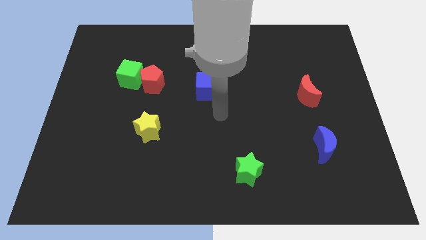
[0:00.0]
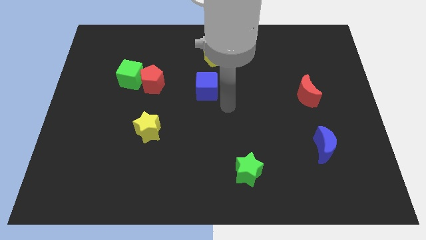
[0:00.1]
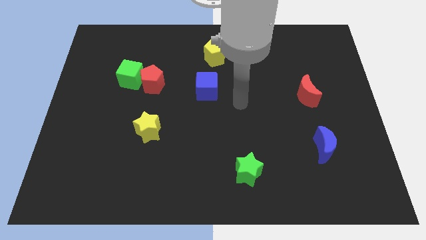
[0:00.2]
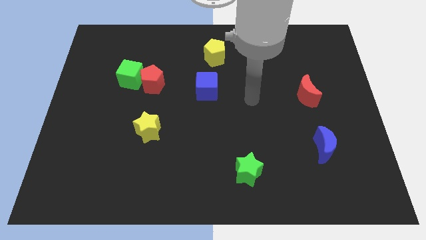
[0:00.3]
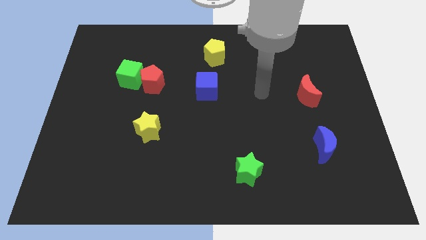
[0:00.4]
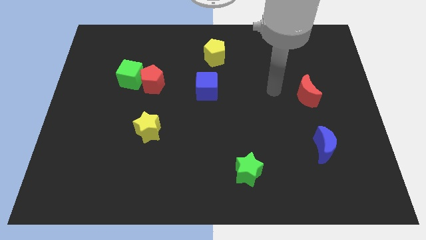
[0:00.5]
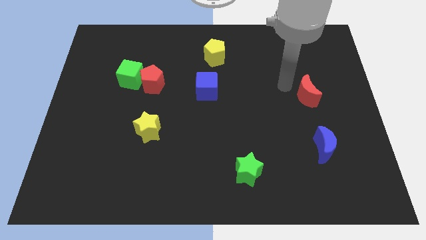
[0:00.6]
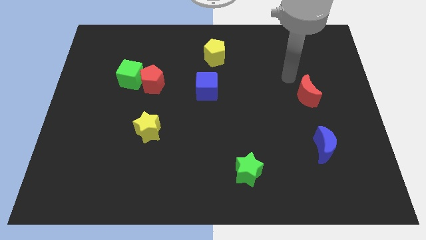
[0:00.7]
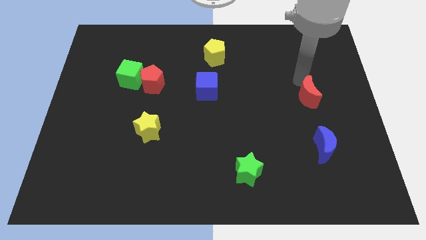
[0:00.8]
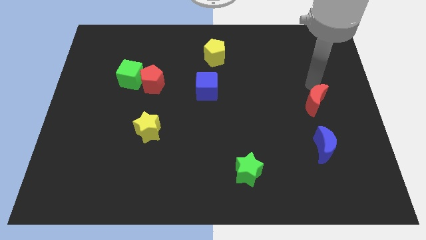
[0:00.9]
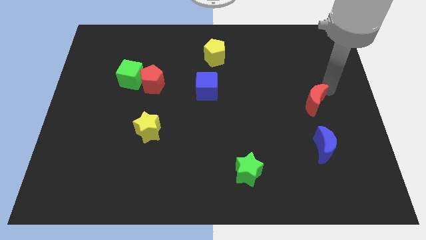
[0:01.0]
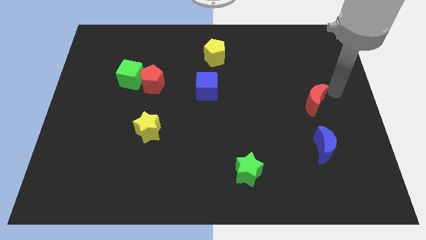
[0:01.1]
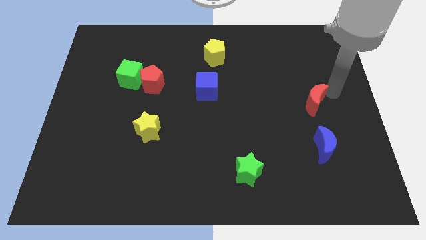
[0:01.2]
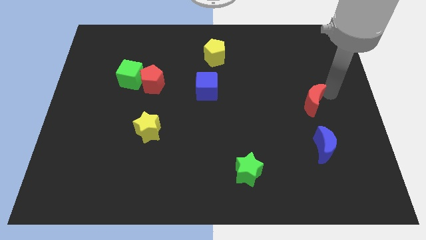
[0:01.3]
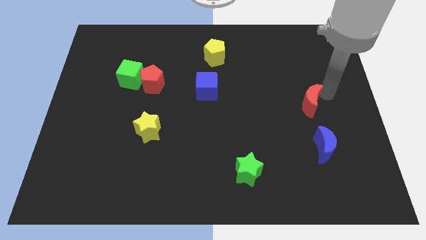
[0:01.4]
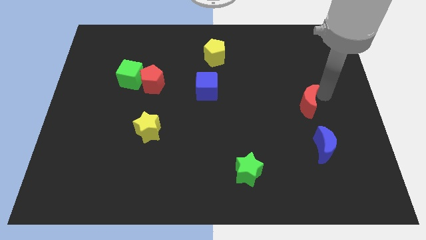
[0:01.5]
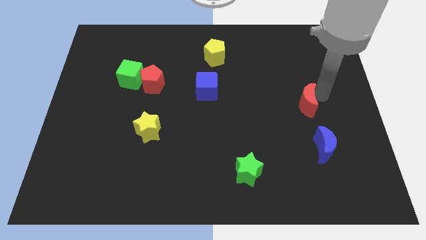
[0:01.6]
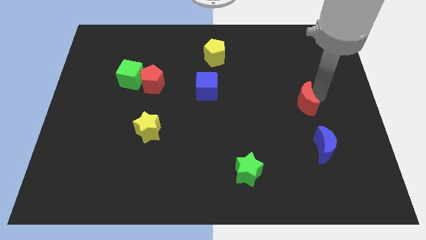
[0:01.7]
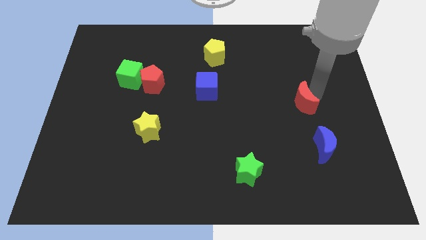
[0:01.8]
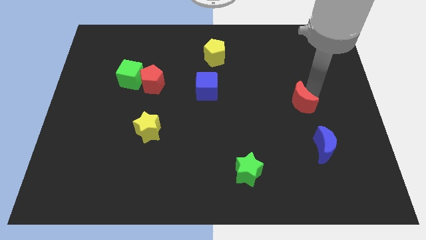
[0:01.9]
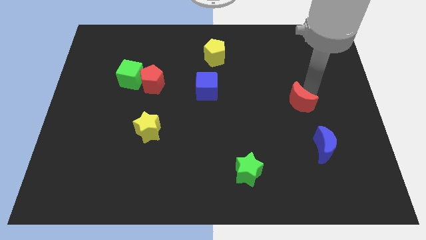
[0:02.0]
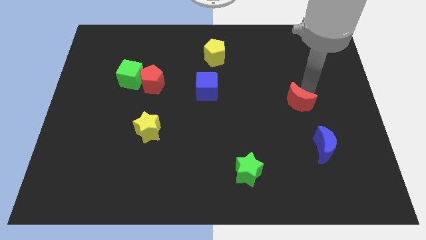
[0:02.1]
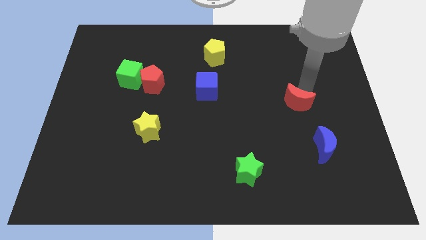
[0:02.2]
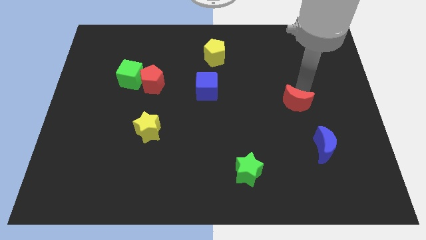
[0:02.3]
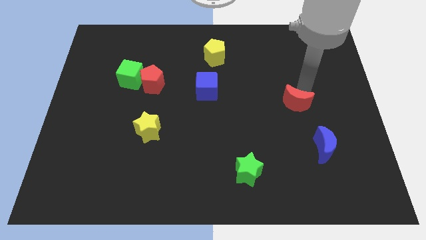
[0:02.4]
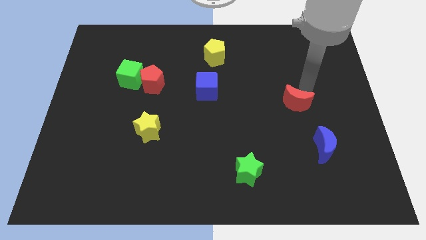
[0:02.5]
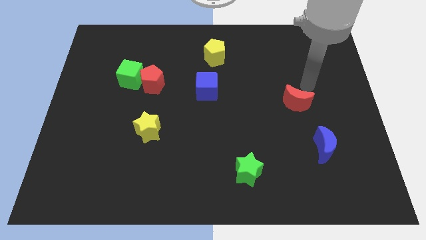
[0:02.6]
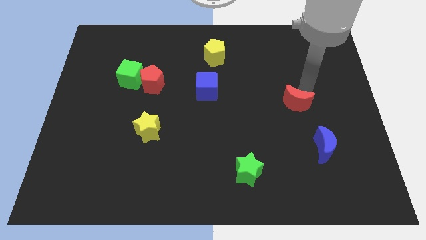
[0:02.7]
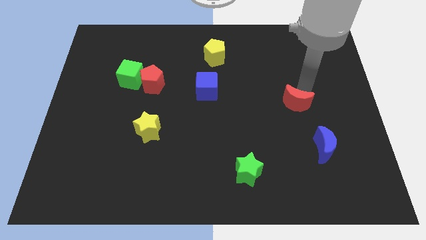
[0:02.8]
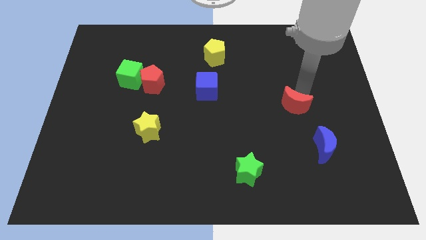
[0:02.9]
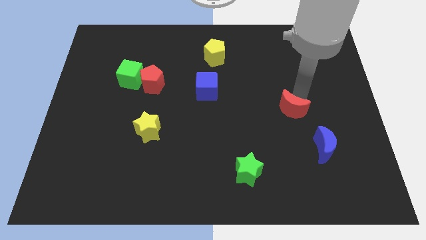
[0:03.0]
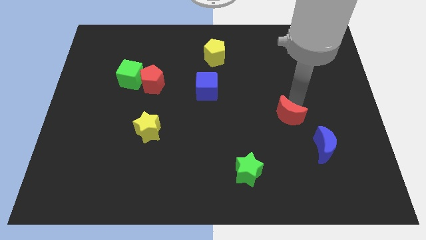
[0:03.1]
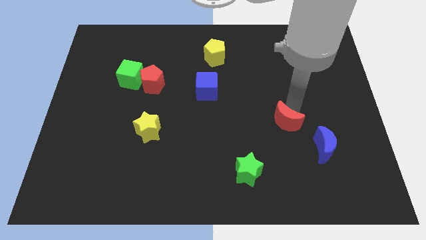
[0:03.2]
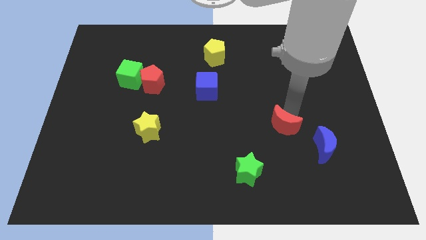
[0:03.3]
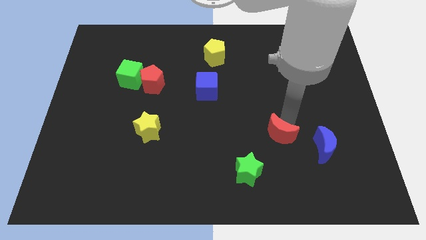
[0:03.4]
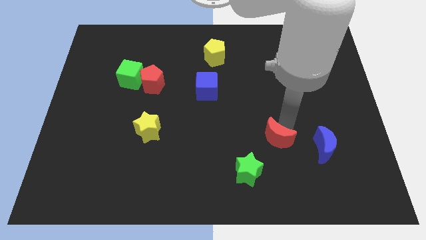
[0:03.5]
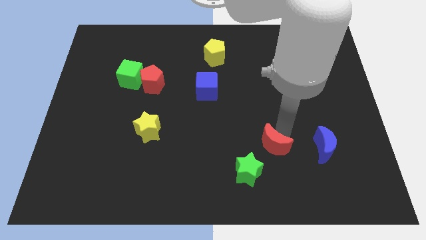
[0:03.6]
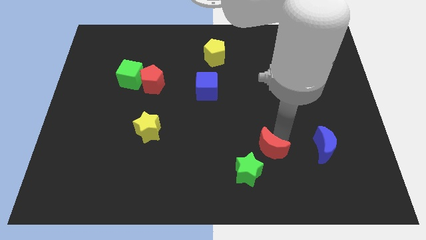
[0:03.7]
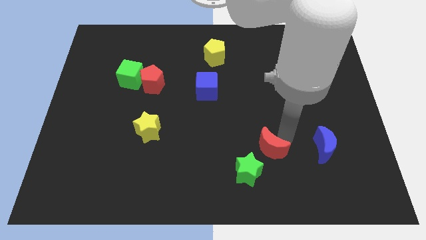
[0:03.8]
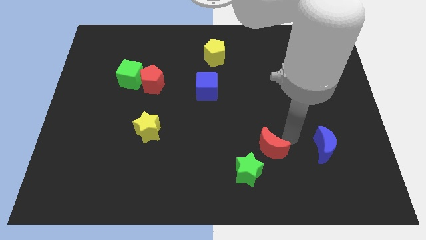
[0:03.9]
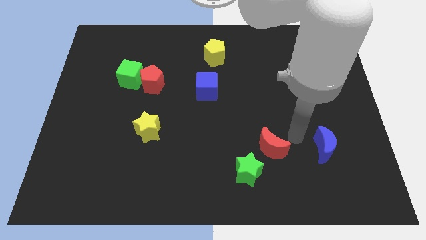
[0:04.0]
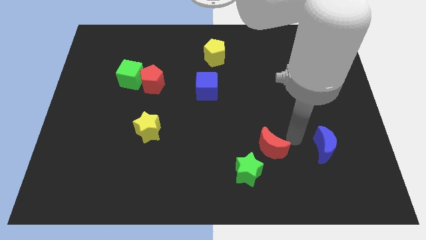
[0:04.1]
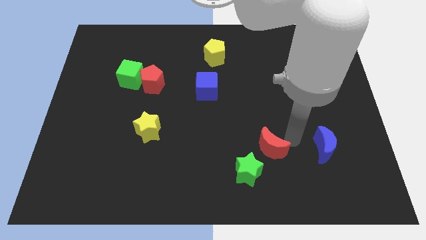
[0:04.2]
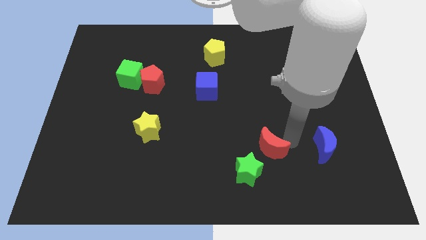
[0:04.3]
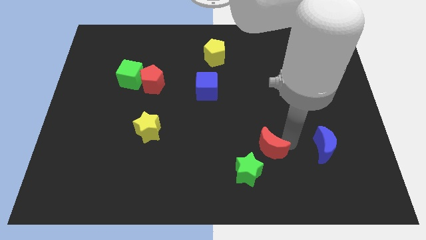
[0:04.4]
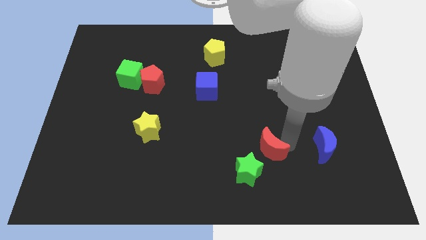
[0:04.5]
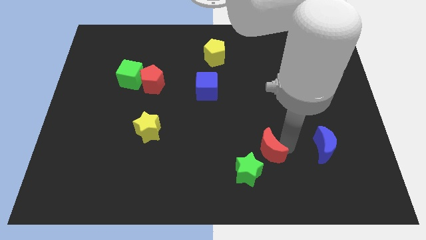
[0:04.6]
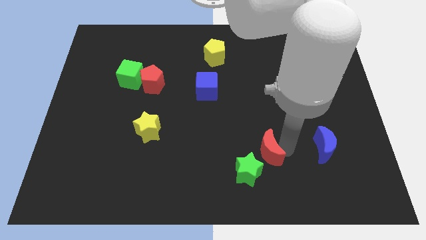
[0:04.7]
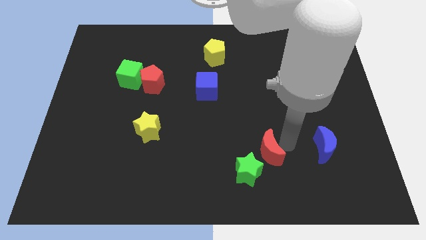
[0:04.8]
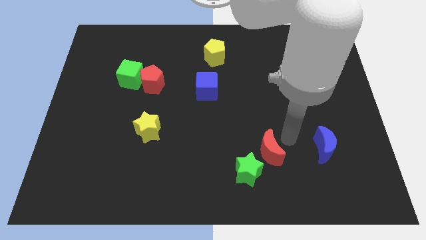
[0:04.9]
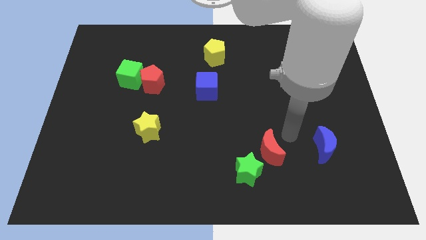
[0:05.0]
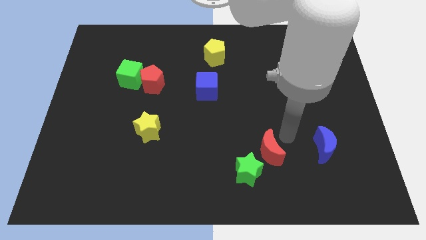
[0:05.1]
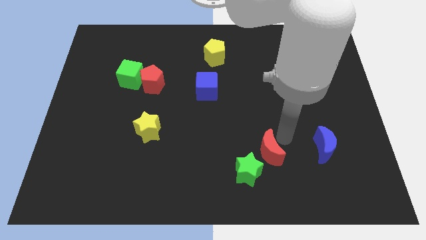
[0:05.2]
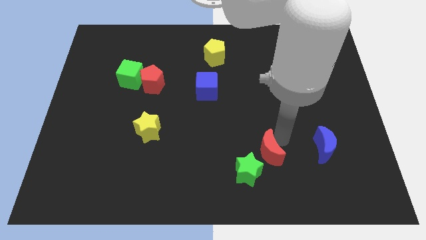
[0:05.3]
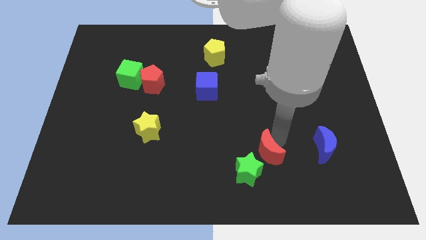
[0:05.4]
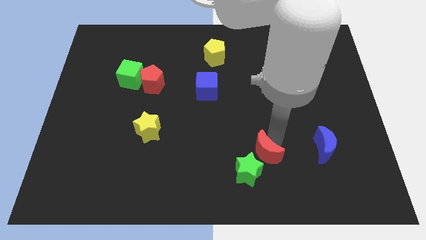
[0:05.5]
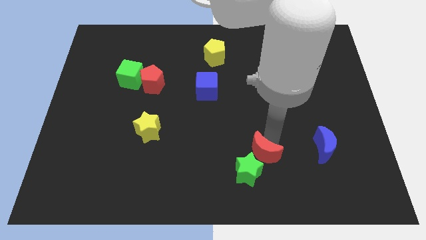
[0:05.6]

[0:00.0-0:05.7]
push the red moon towards the green star

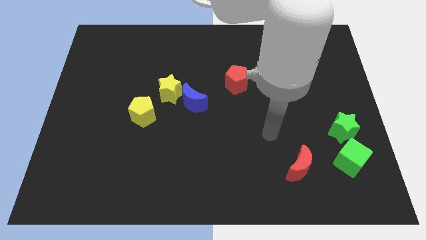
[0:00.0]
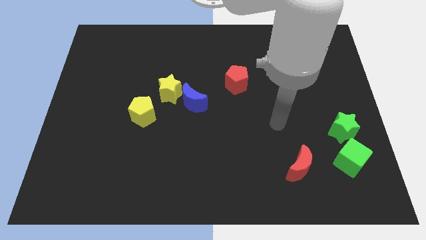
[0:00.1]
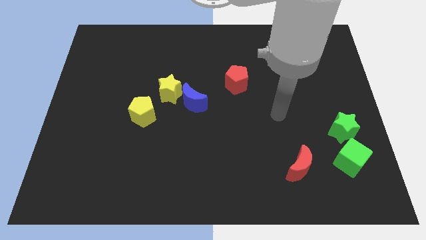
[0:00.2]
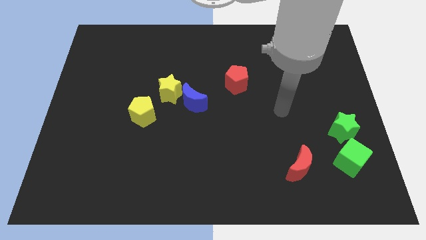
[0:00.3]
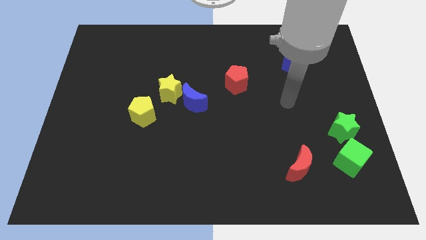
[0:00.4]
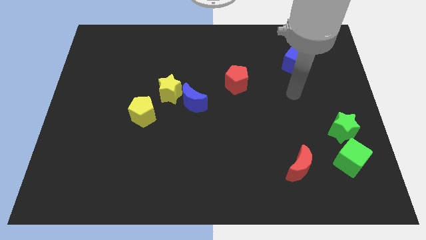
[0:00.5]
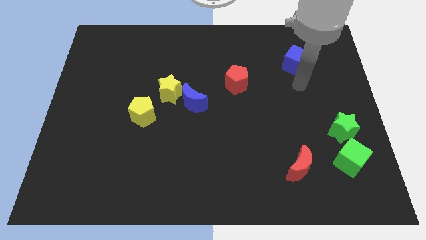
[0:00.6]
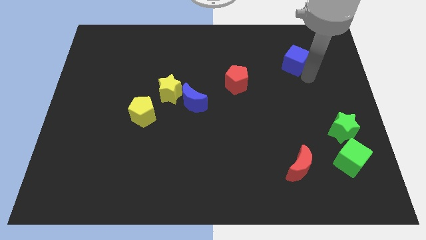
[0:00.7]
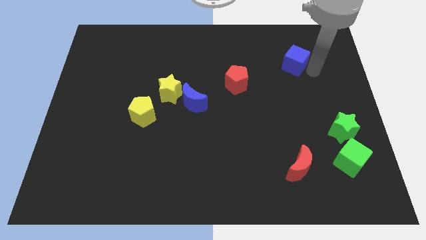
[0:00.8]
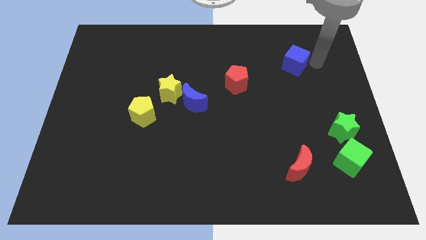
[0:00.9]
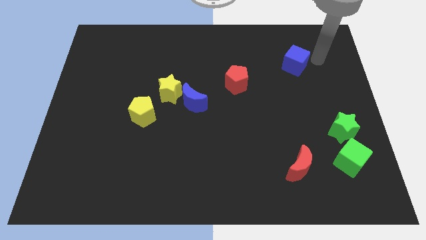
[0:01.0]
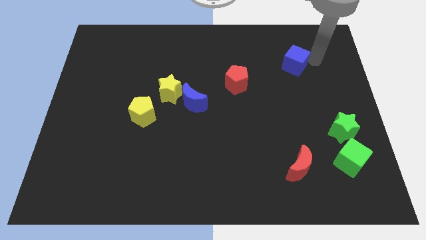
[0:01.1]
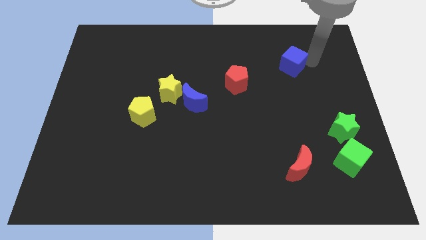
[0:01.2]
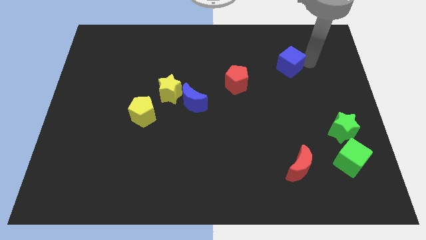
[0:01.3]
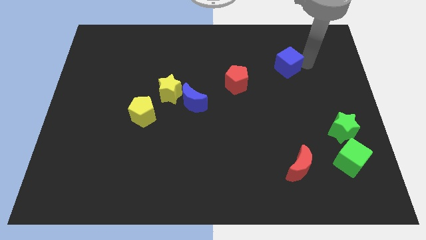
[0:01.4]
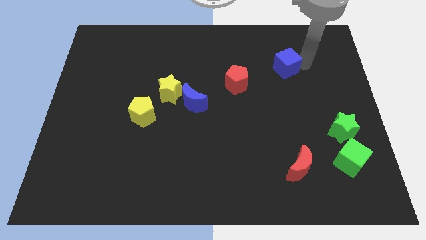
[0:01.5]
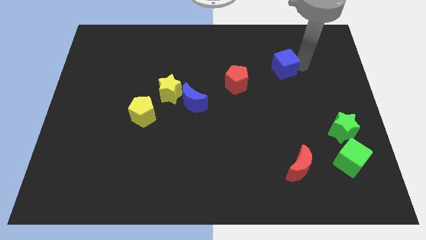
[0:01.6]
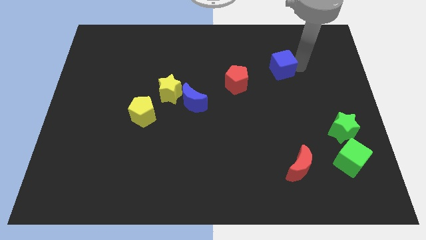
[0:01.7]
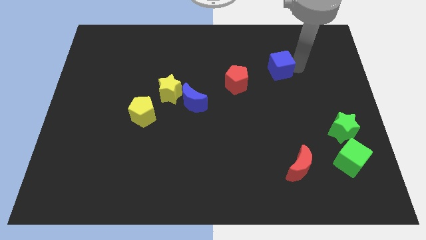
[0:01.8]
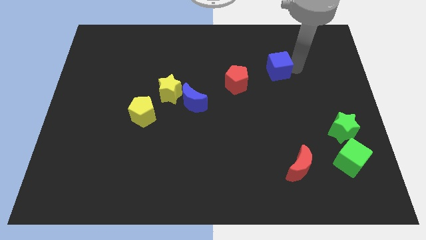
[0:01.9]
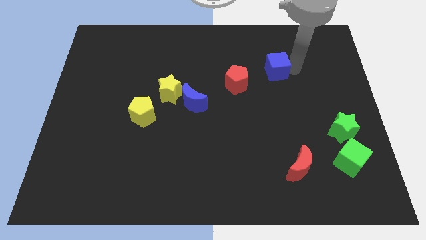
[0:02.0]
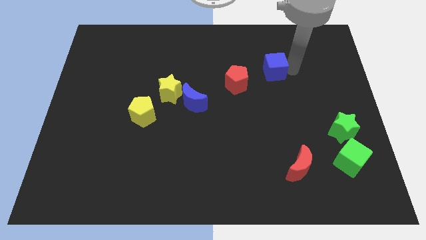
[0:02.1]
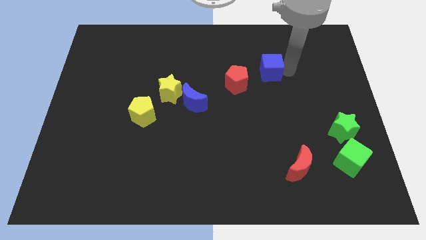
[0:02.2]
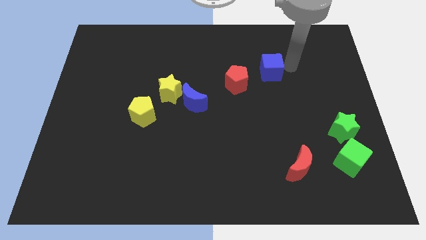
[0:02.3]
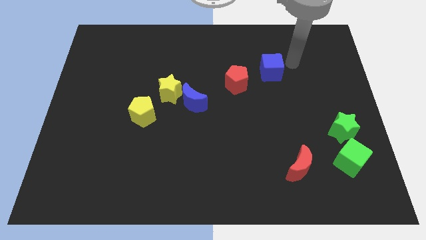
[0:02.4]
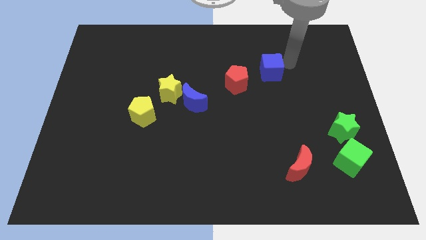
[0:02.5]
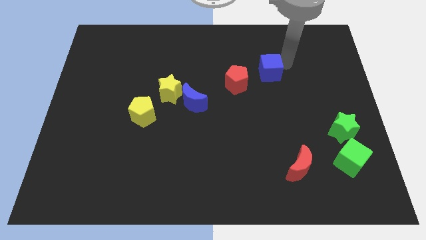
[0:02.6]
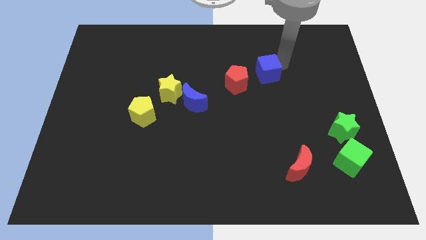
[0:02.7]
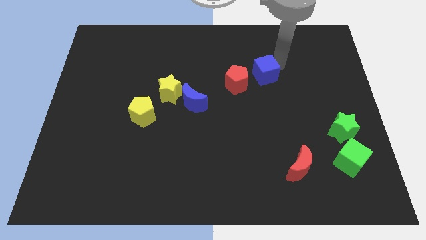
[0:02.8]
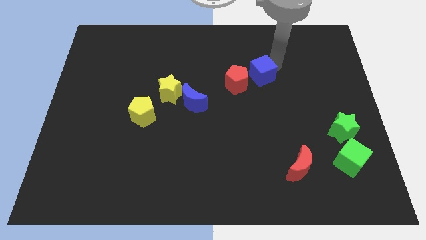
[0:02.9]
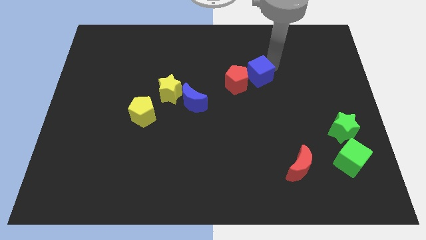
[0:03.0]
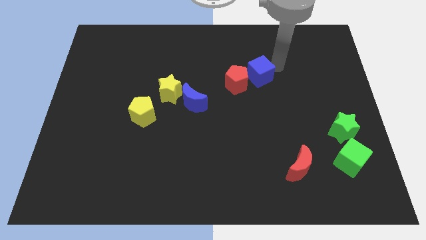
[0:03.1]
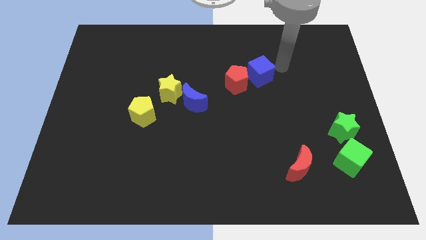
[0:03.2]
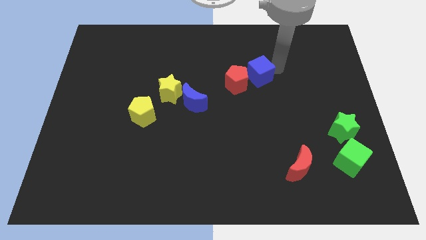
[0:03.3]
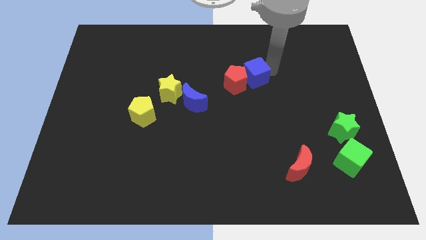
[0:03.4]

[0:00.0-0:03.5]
put the blue cube close to the red pentagon
